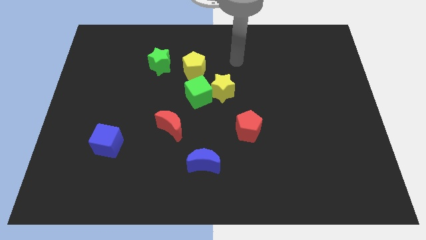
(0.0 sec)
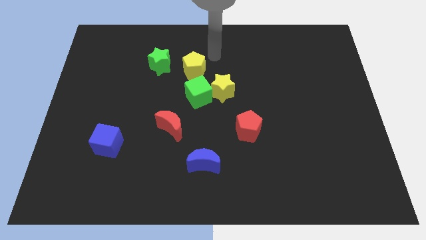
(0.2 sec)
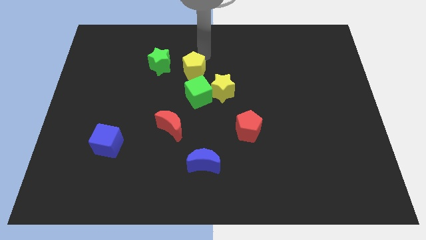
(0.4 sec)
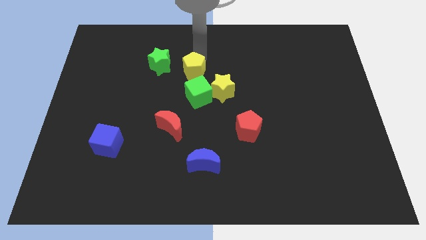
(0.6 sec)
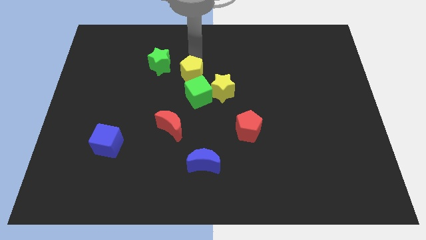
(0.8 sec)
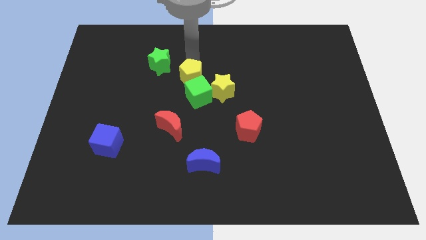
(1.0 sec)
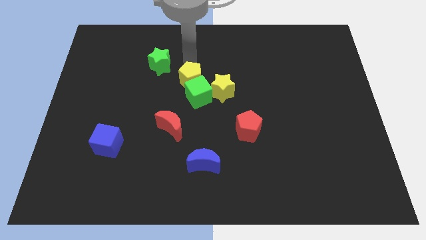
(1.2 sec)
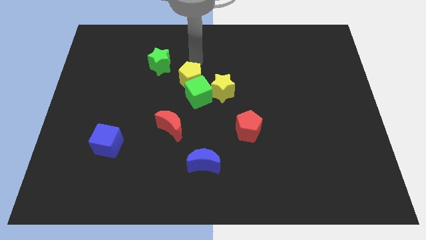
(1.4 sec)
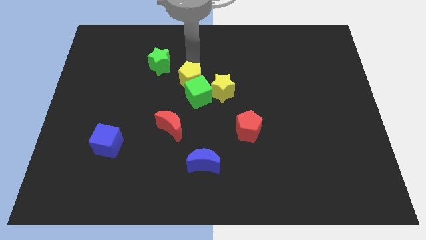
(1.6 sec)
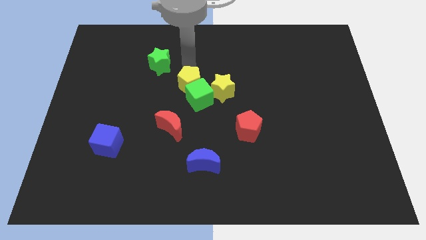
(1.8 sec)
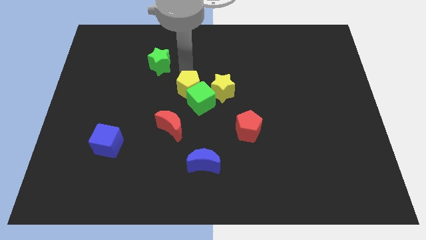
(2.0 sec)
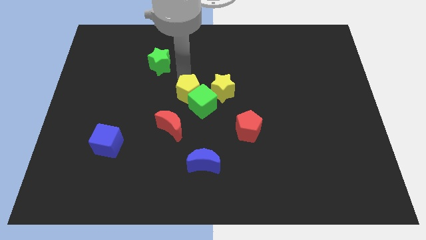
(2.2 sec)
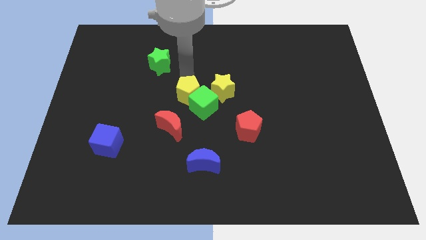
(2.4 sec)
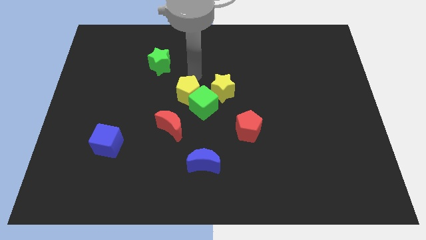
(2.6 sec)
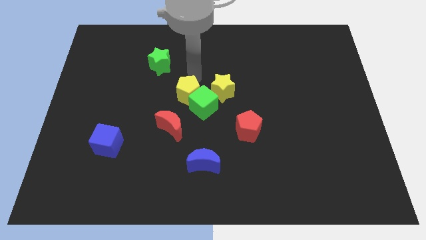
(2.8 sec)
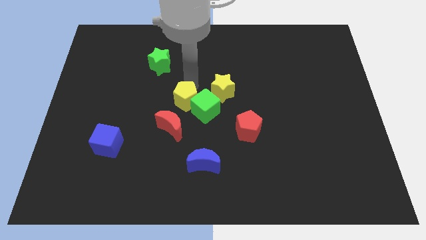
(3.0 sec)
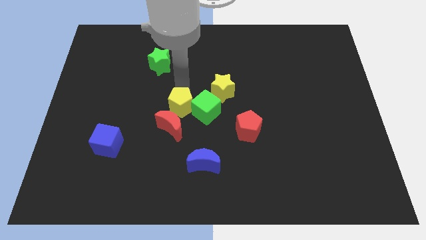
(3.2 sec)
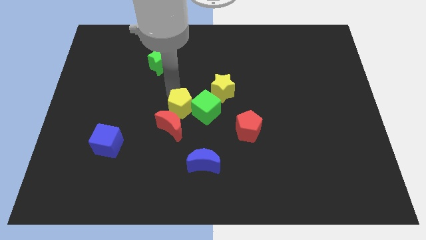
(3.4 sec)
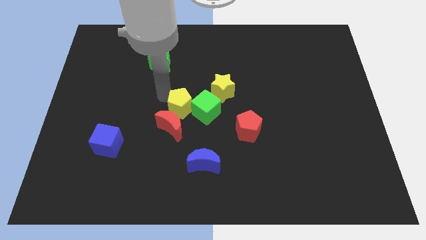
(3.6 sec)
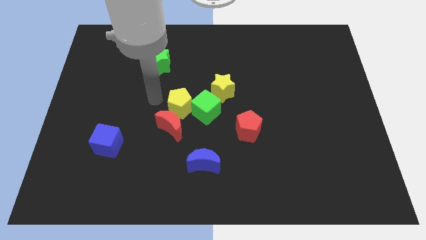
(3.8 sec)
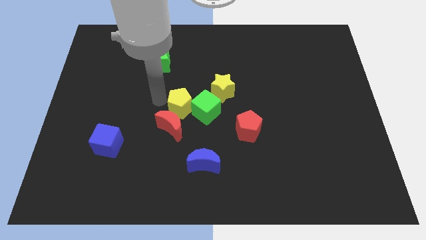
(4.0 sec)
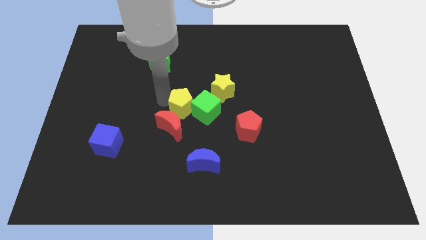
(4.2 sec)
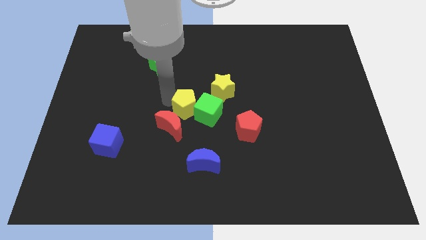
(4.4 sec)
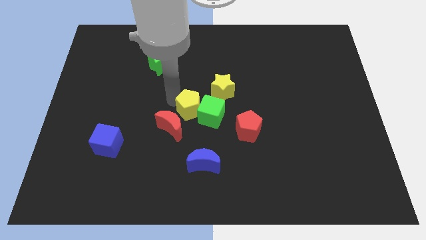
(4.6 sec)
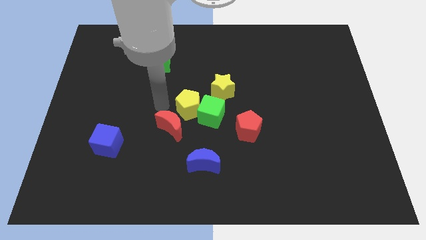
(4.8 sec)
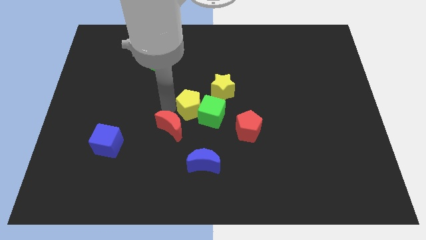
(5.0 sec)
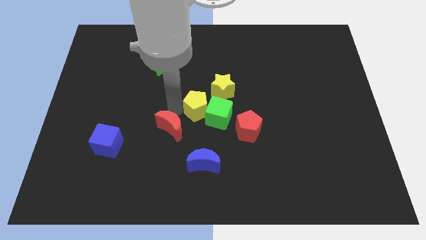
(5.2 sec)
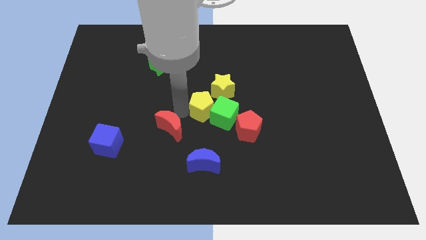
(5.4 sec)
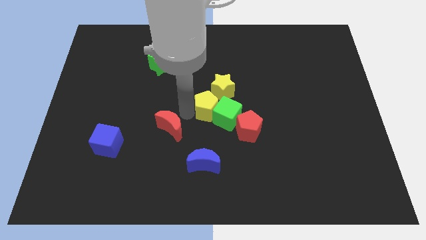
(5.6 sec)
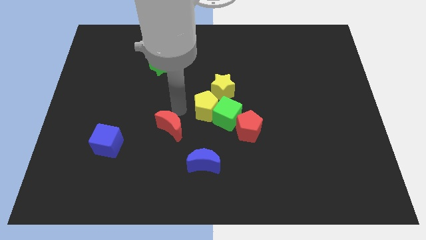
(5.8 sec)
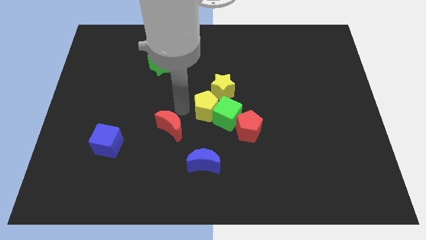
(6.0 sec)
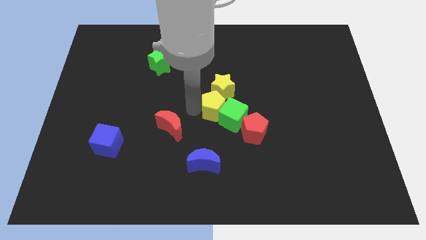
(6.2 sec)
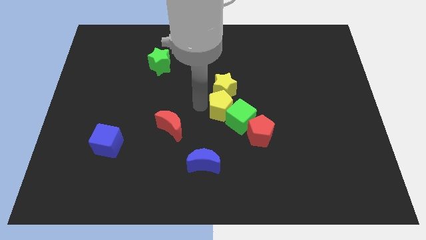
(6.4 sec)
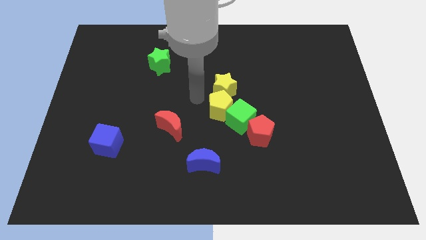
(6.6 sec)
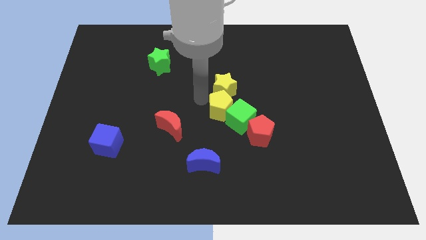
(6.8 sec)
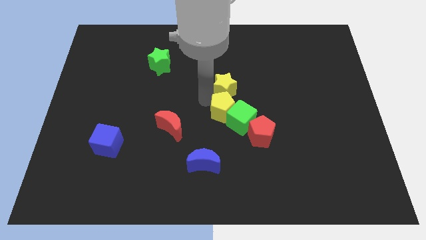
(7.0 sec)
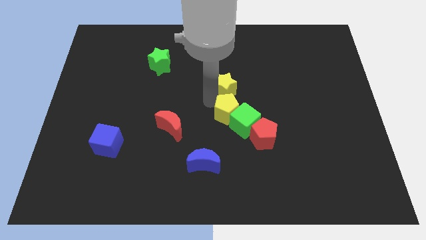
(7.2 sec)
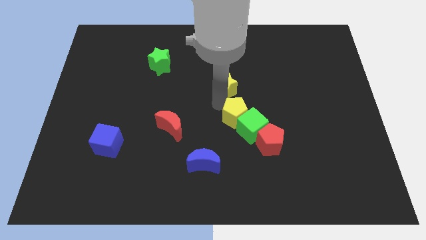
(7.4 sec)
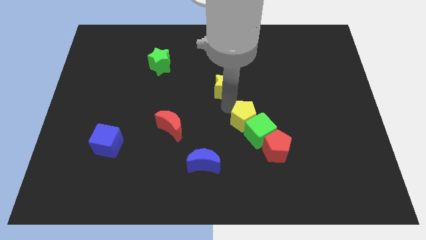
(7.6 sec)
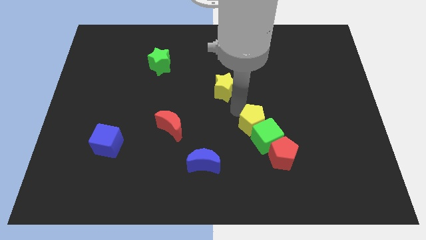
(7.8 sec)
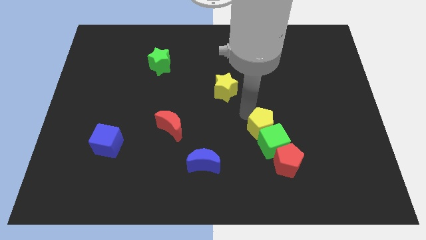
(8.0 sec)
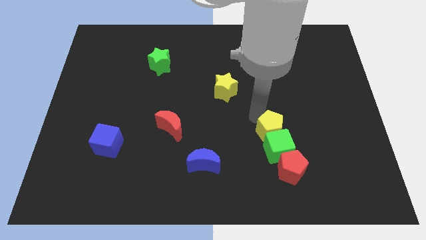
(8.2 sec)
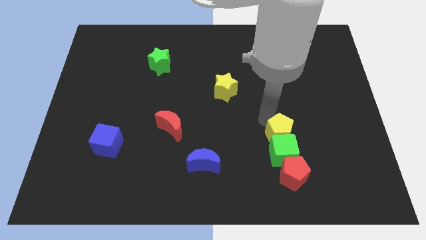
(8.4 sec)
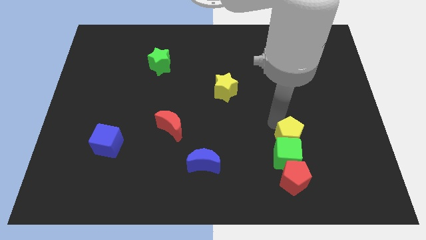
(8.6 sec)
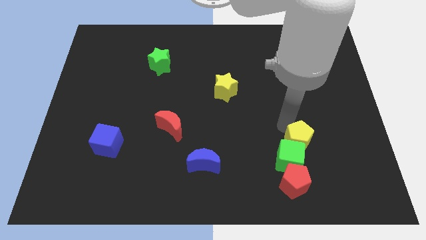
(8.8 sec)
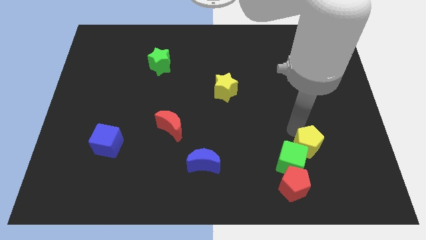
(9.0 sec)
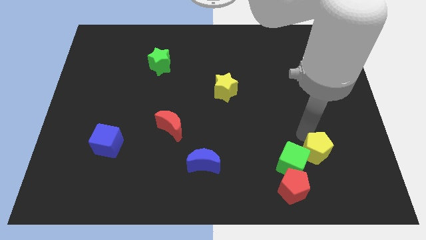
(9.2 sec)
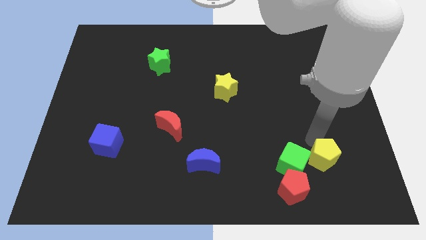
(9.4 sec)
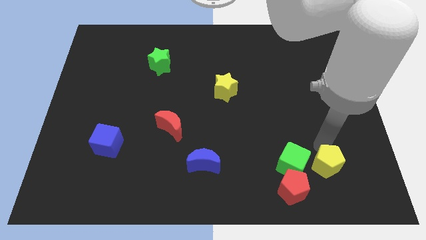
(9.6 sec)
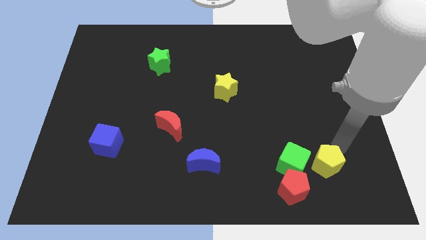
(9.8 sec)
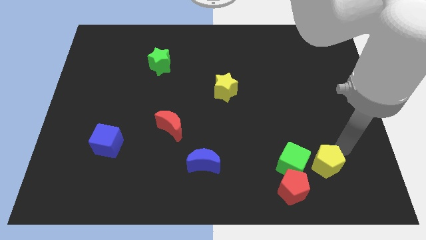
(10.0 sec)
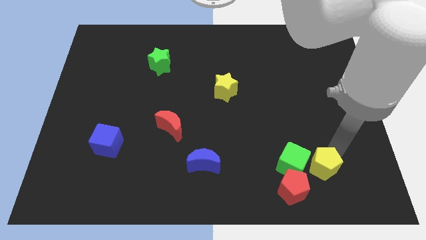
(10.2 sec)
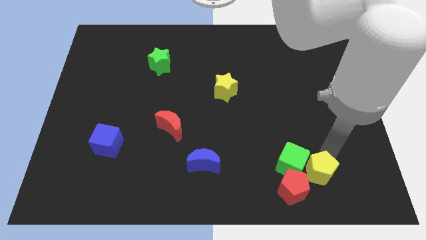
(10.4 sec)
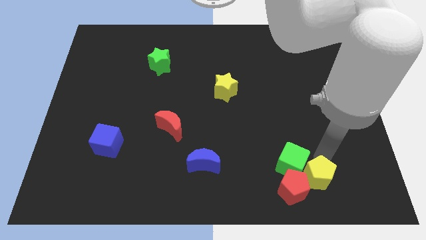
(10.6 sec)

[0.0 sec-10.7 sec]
put the yellow pentagon to the red pentagon

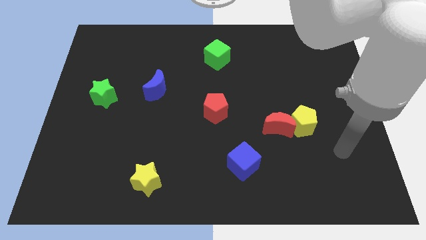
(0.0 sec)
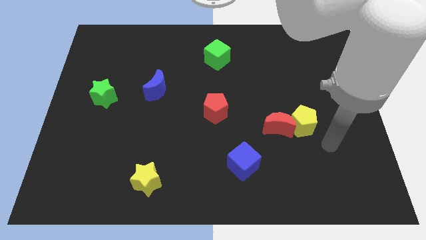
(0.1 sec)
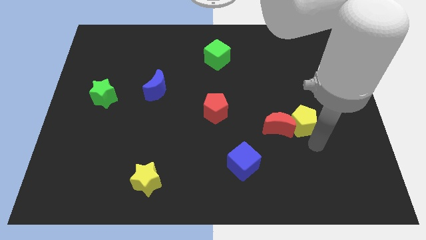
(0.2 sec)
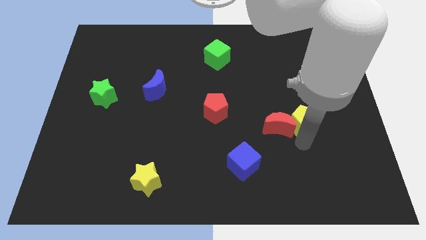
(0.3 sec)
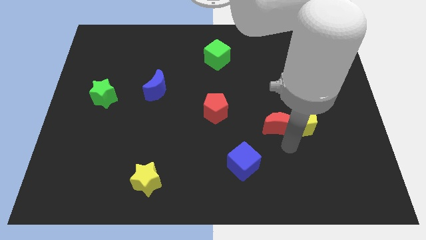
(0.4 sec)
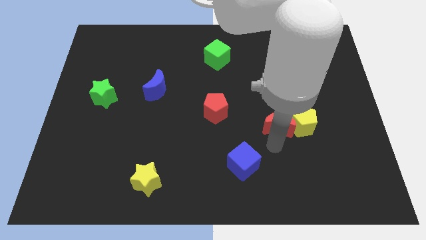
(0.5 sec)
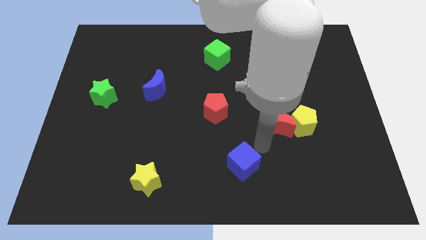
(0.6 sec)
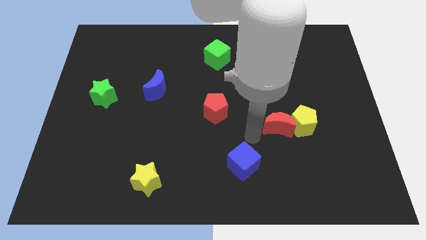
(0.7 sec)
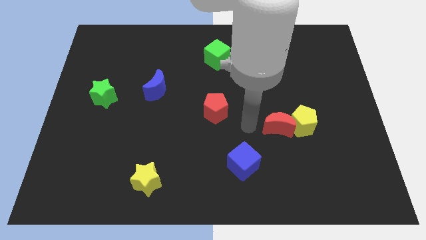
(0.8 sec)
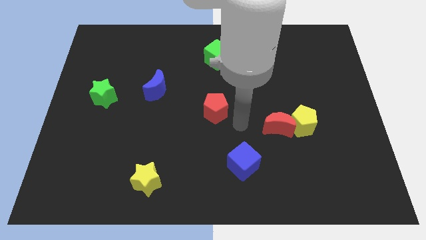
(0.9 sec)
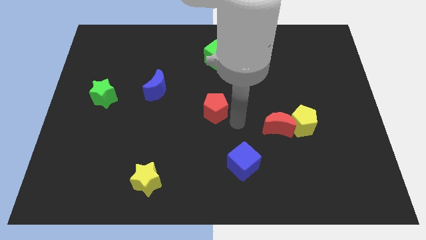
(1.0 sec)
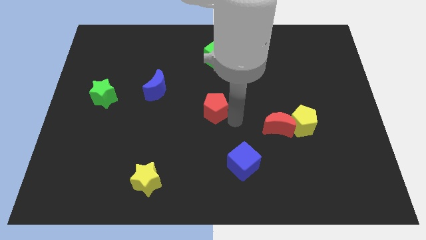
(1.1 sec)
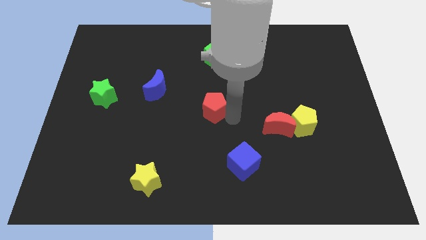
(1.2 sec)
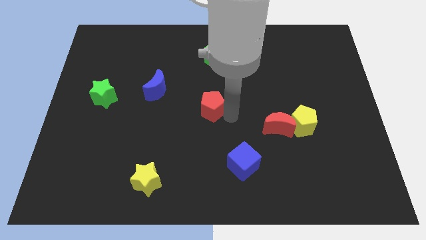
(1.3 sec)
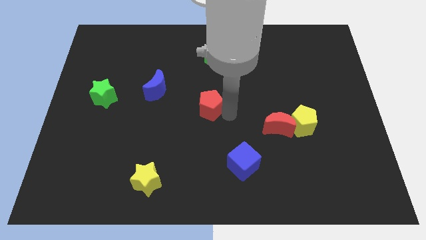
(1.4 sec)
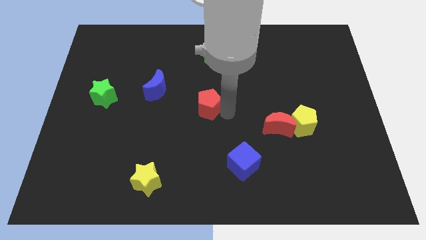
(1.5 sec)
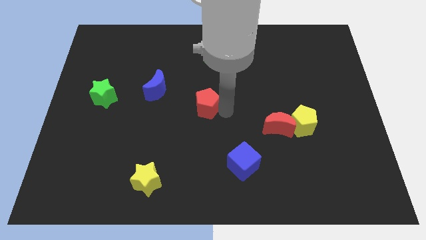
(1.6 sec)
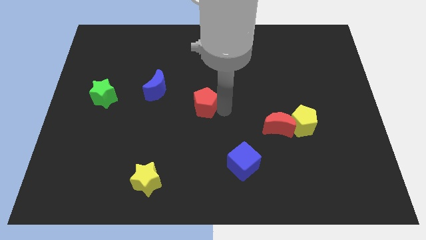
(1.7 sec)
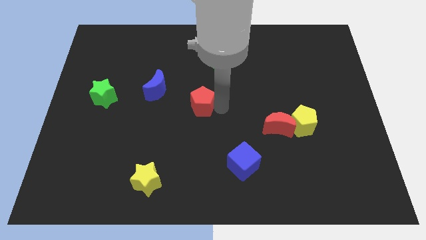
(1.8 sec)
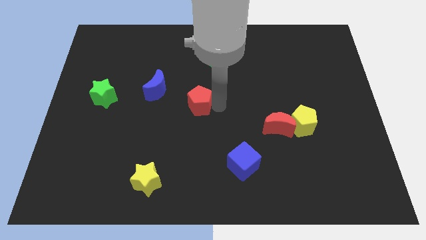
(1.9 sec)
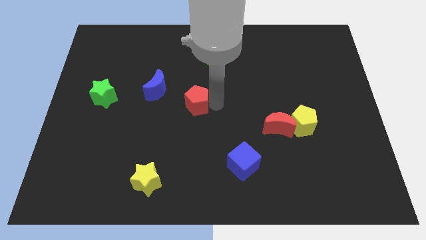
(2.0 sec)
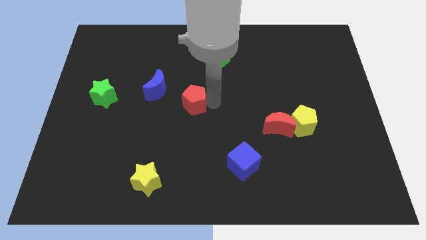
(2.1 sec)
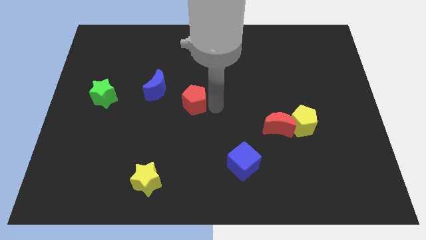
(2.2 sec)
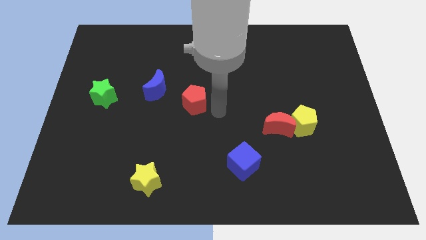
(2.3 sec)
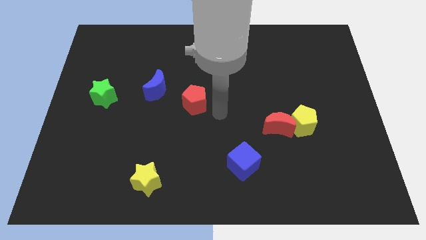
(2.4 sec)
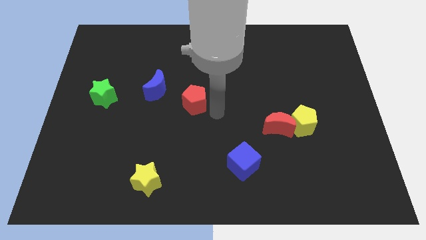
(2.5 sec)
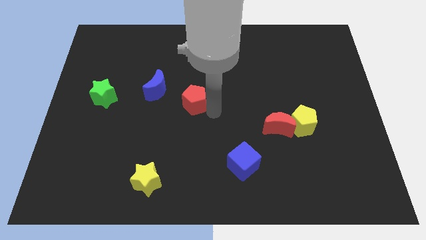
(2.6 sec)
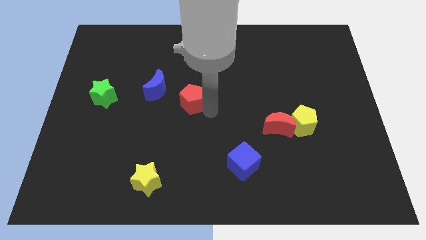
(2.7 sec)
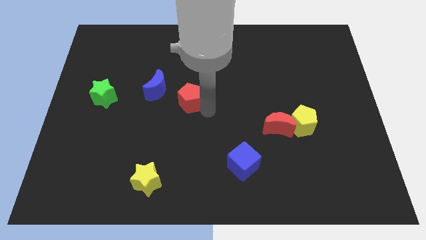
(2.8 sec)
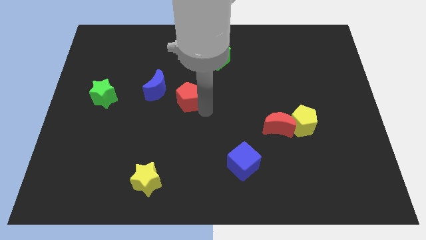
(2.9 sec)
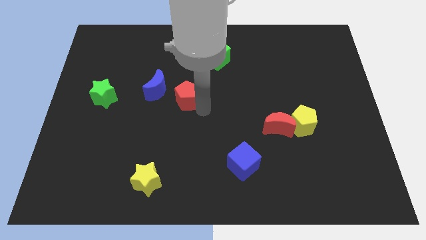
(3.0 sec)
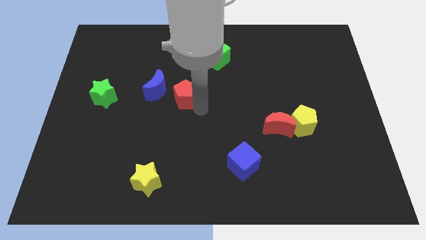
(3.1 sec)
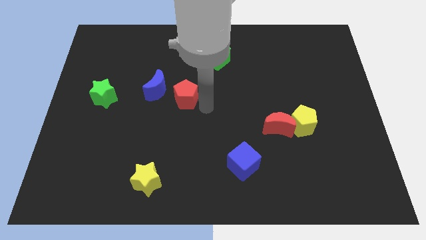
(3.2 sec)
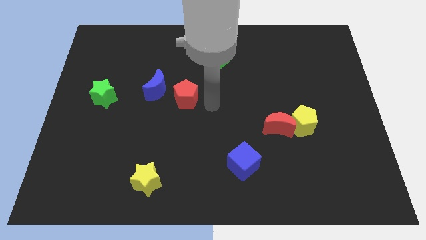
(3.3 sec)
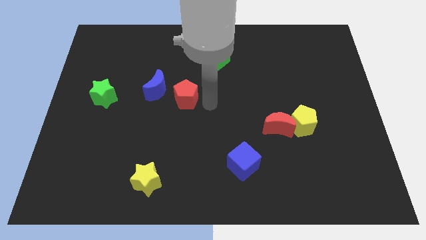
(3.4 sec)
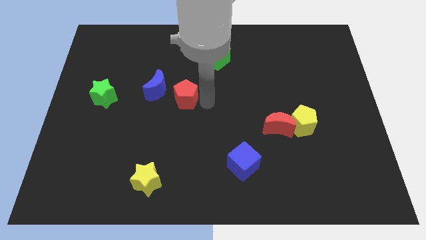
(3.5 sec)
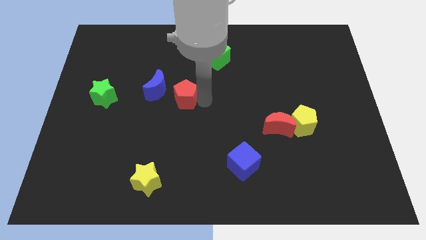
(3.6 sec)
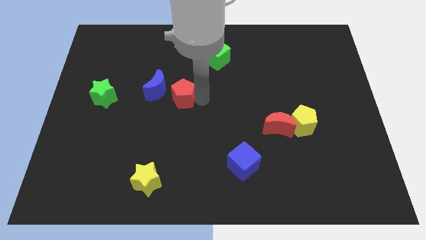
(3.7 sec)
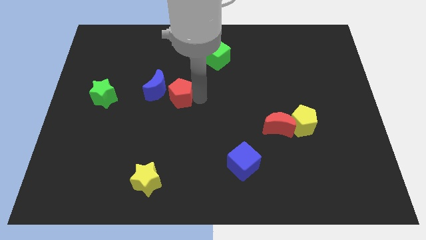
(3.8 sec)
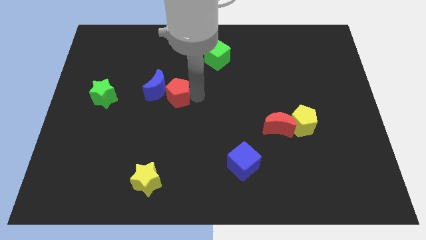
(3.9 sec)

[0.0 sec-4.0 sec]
move the red pentagon next to the blue moon
